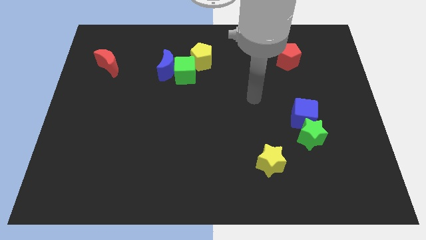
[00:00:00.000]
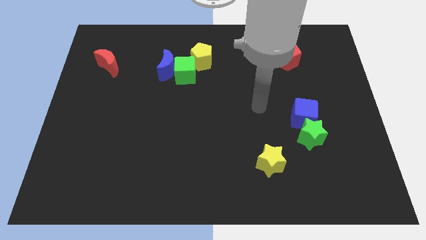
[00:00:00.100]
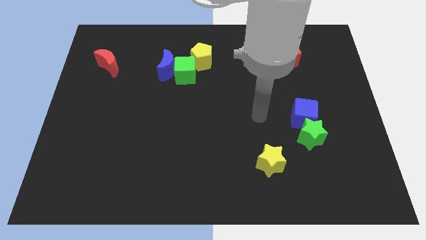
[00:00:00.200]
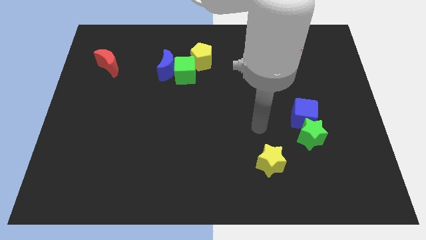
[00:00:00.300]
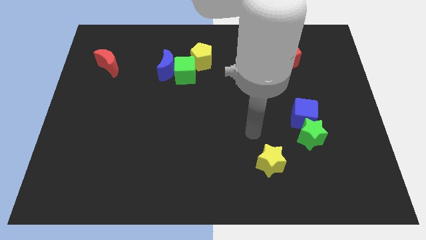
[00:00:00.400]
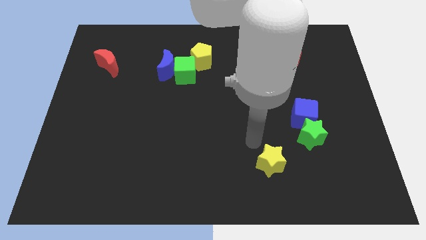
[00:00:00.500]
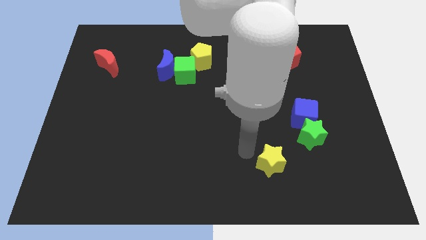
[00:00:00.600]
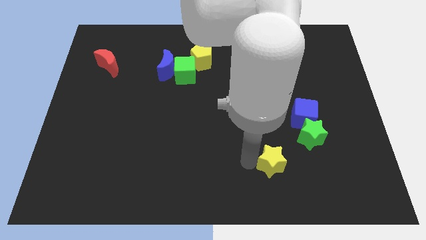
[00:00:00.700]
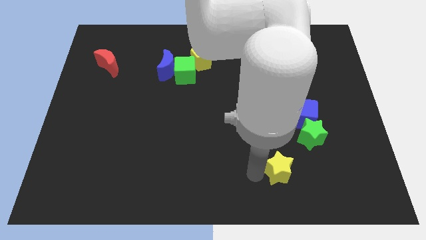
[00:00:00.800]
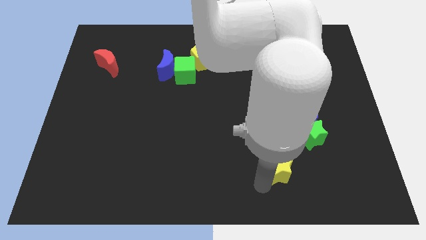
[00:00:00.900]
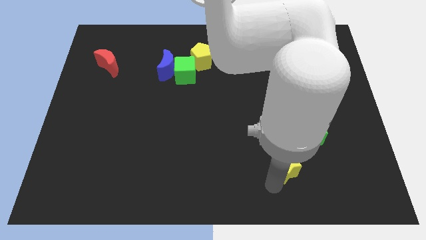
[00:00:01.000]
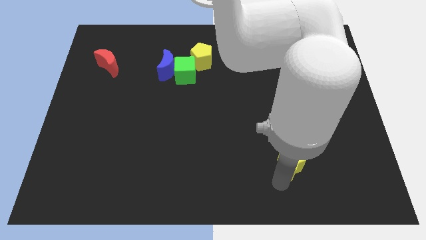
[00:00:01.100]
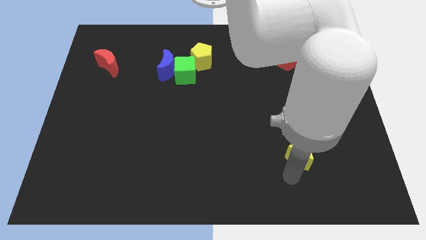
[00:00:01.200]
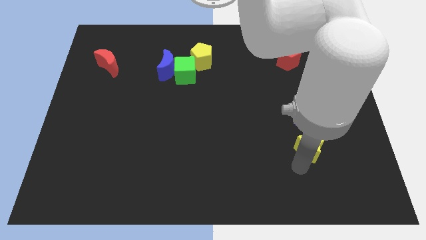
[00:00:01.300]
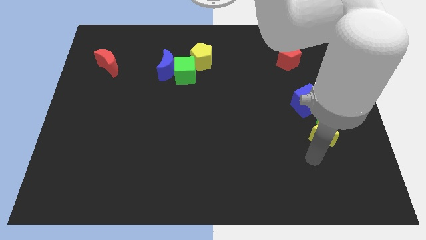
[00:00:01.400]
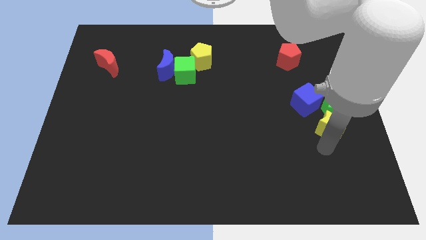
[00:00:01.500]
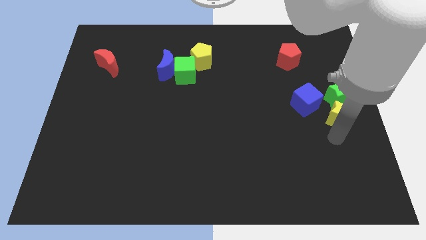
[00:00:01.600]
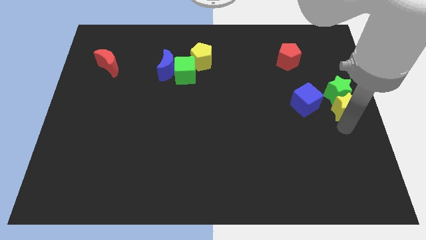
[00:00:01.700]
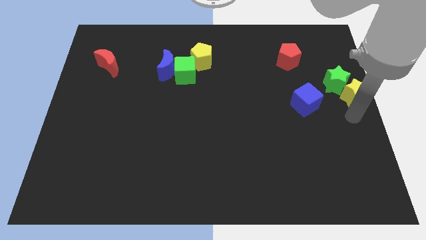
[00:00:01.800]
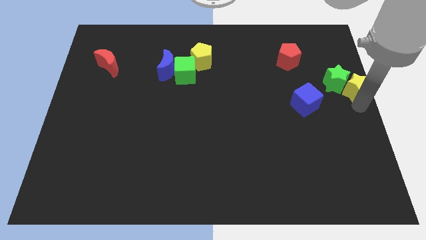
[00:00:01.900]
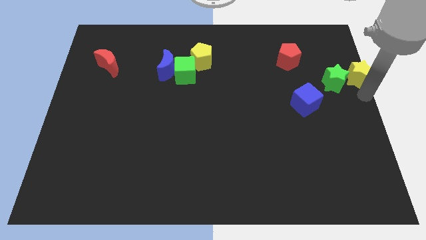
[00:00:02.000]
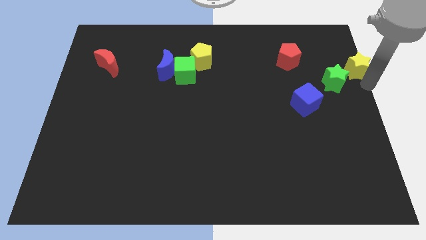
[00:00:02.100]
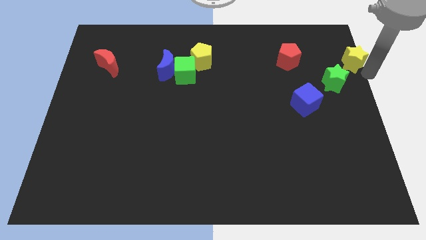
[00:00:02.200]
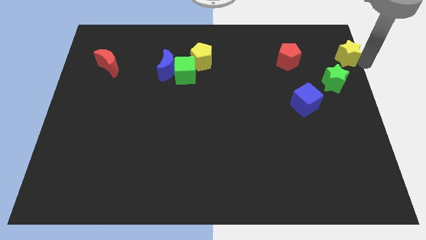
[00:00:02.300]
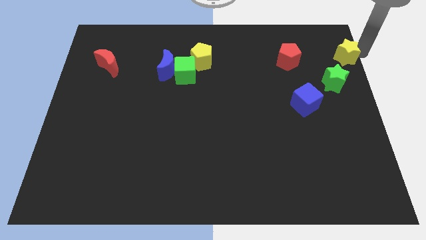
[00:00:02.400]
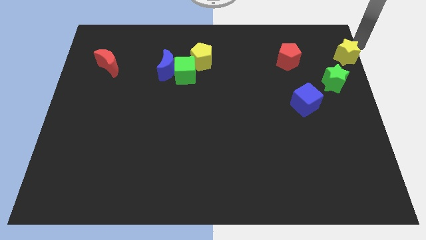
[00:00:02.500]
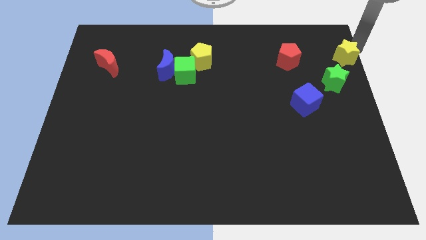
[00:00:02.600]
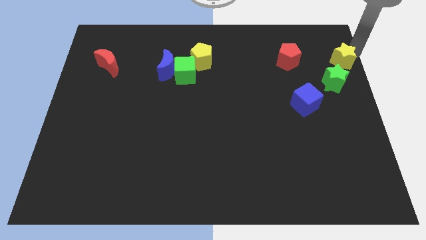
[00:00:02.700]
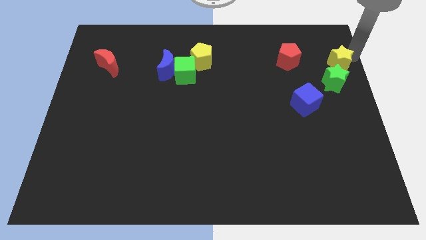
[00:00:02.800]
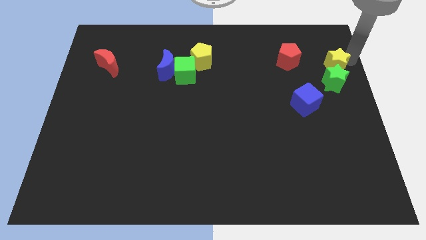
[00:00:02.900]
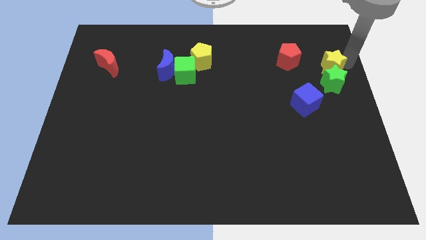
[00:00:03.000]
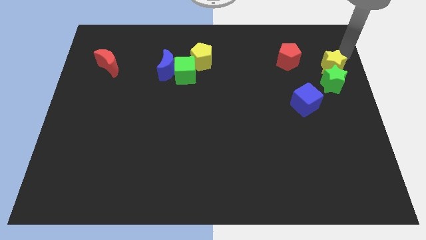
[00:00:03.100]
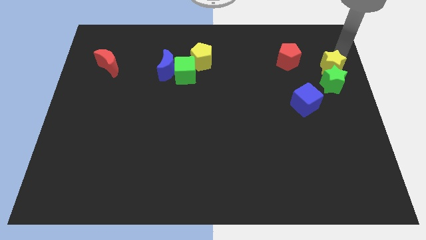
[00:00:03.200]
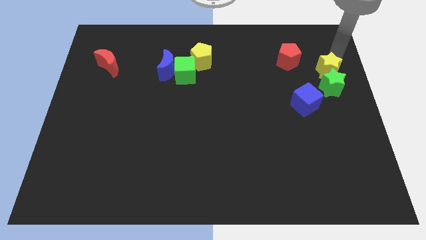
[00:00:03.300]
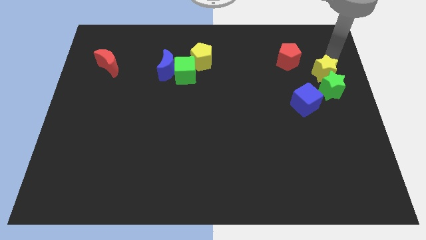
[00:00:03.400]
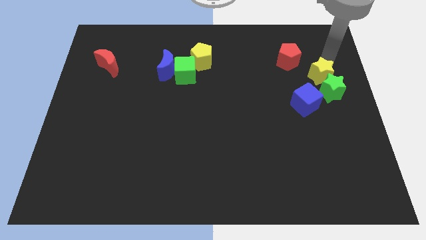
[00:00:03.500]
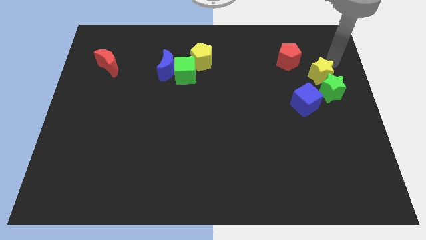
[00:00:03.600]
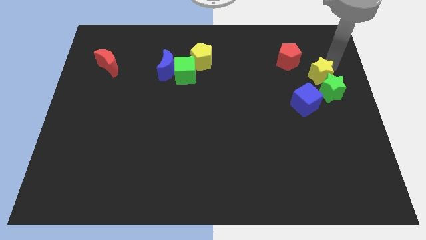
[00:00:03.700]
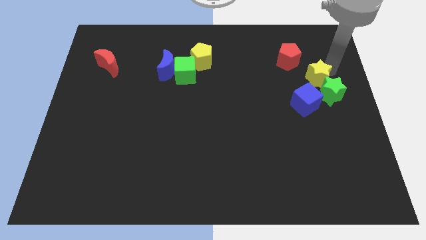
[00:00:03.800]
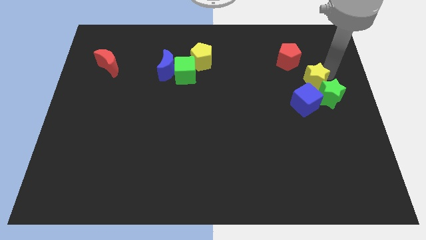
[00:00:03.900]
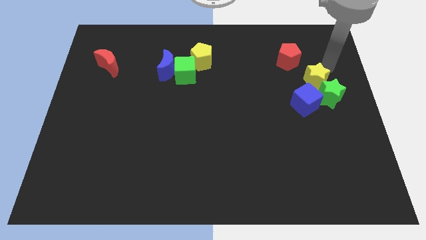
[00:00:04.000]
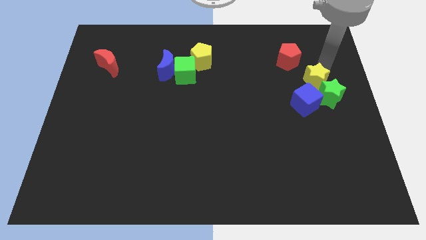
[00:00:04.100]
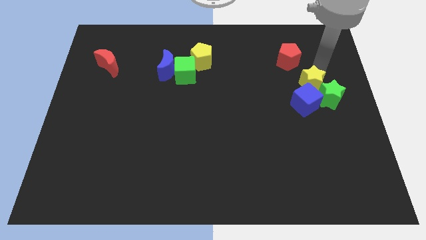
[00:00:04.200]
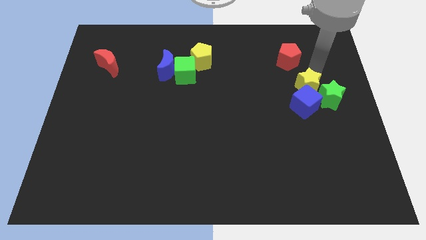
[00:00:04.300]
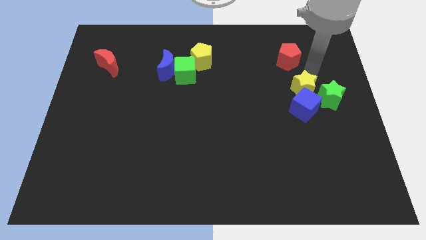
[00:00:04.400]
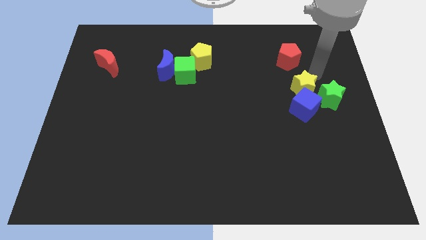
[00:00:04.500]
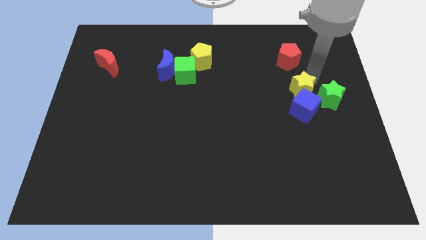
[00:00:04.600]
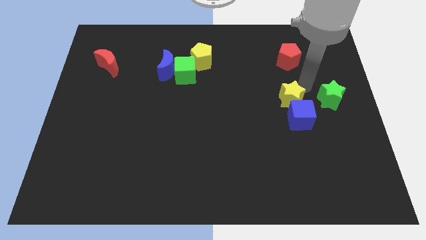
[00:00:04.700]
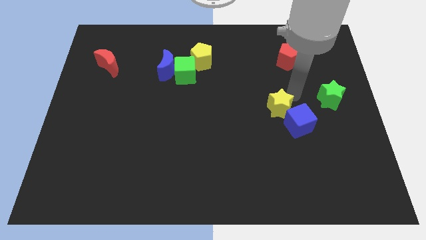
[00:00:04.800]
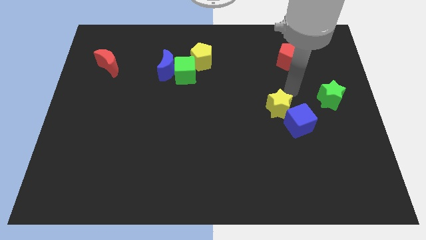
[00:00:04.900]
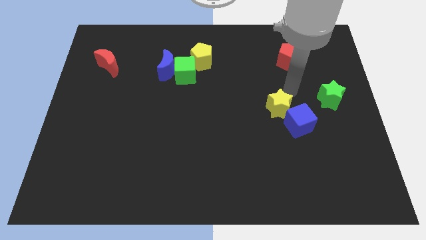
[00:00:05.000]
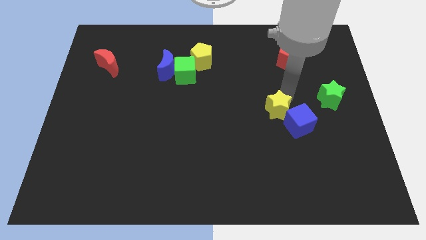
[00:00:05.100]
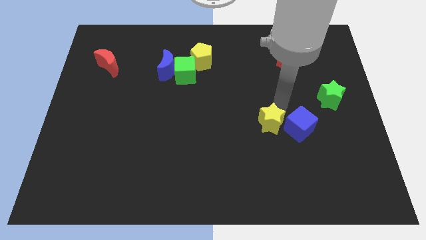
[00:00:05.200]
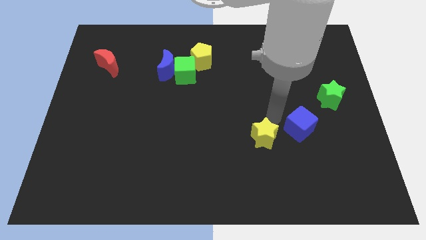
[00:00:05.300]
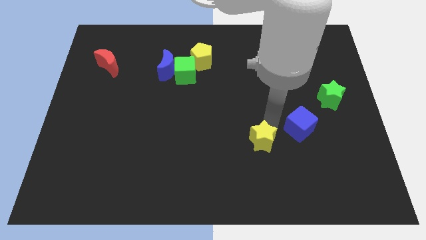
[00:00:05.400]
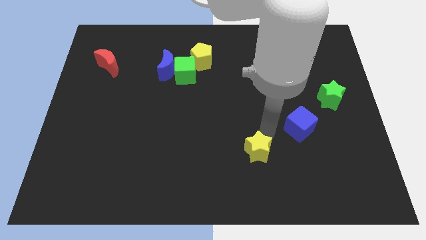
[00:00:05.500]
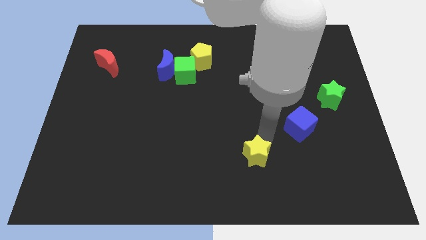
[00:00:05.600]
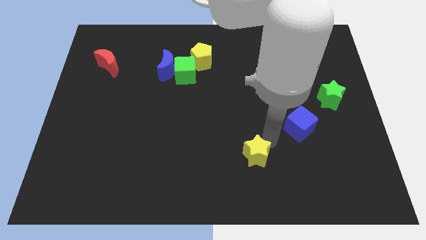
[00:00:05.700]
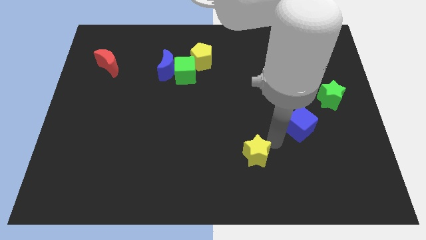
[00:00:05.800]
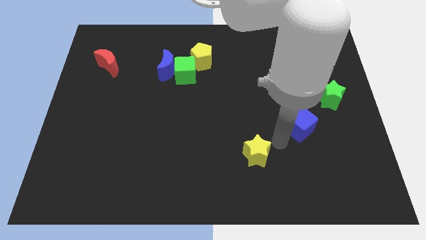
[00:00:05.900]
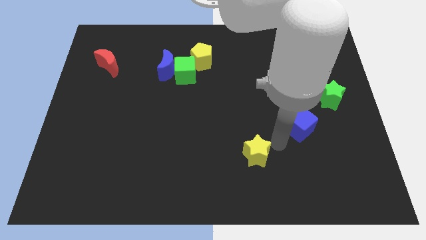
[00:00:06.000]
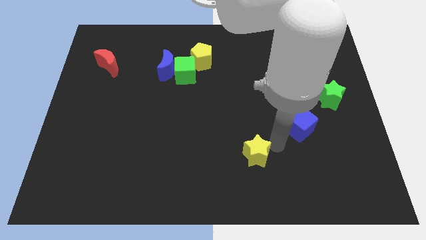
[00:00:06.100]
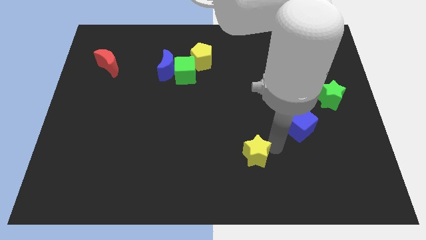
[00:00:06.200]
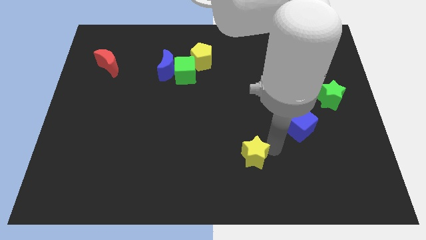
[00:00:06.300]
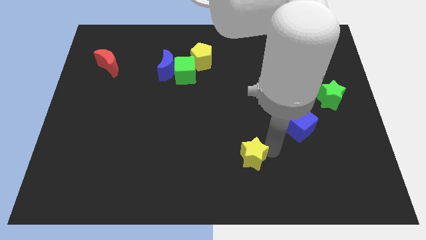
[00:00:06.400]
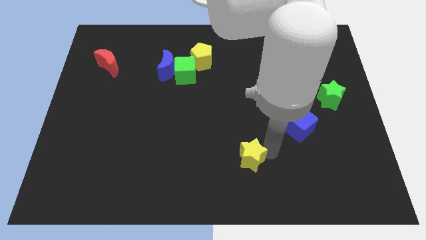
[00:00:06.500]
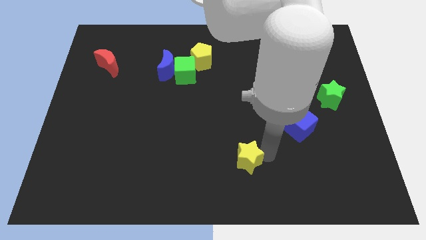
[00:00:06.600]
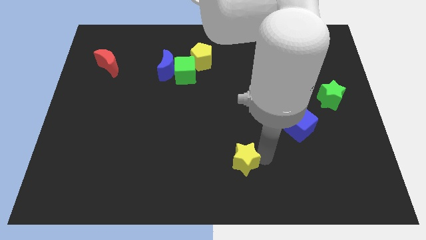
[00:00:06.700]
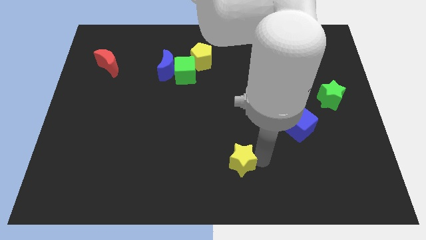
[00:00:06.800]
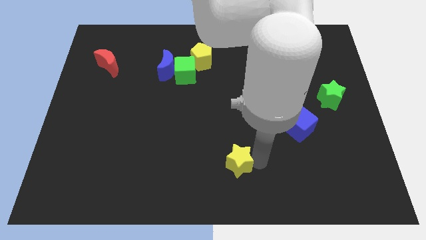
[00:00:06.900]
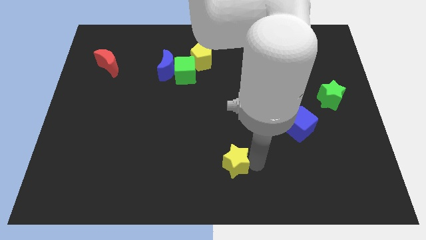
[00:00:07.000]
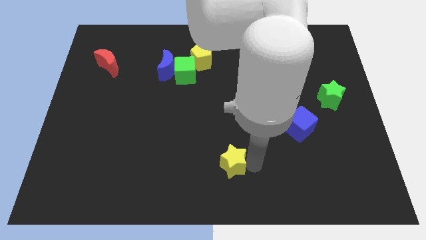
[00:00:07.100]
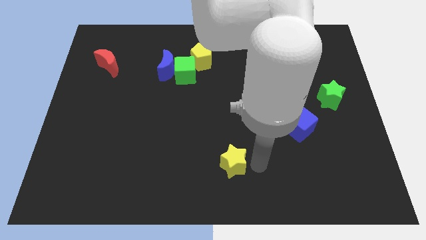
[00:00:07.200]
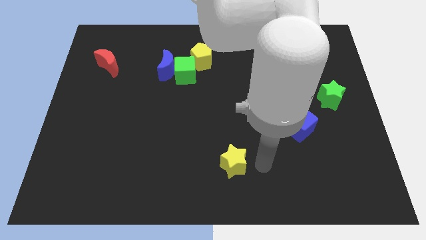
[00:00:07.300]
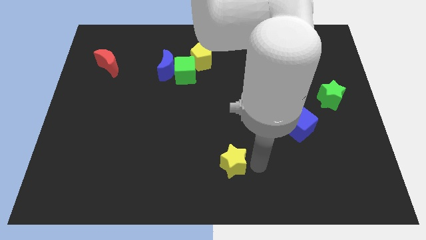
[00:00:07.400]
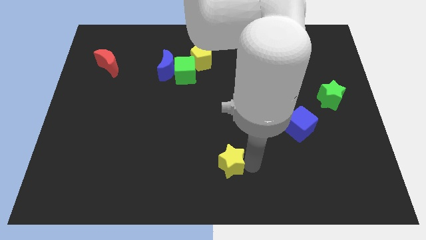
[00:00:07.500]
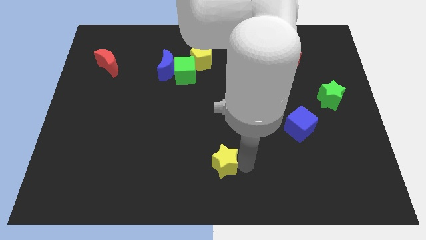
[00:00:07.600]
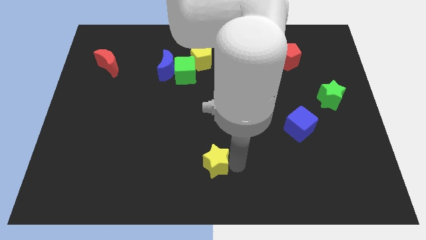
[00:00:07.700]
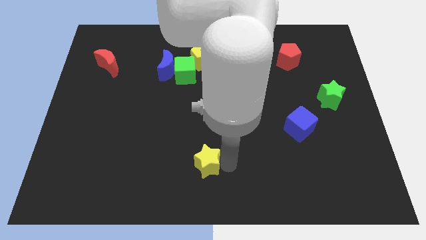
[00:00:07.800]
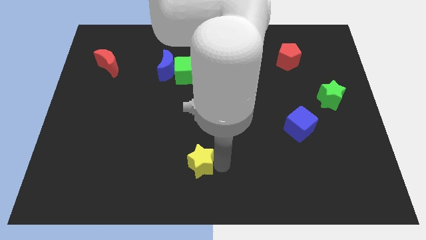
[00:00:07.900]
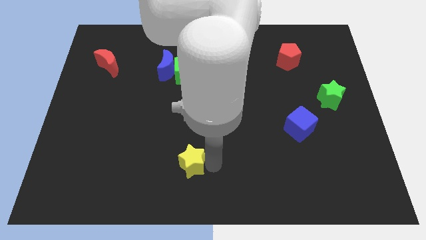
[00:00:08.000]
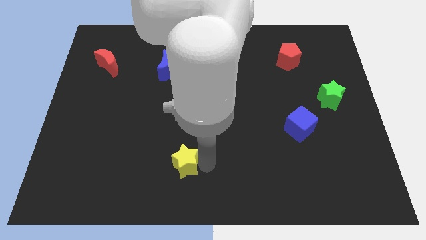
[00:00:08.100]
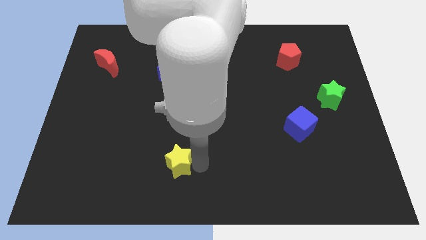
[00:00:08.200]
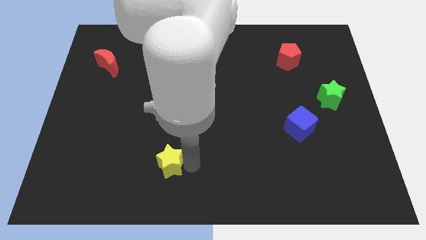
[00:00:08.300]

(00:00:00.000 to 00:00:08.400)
push the yellow star left
